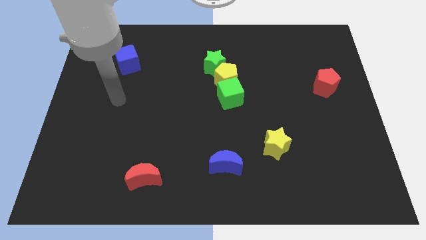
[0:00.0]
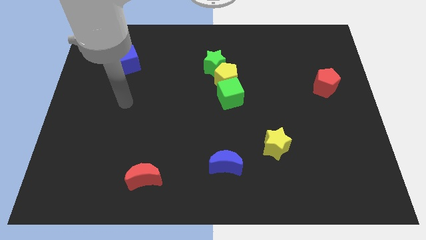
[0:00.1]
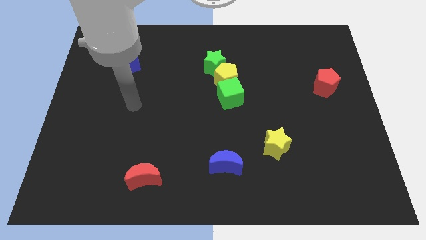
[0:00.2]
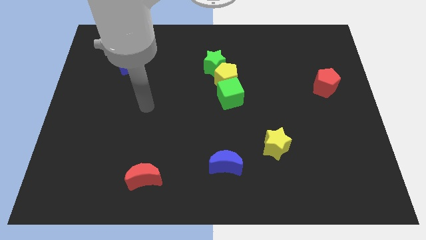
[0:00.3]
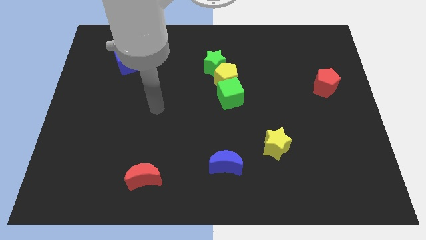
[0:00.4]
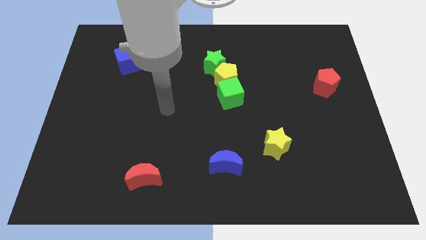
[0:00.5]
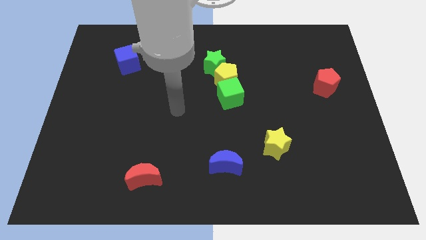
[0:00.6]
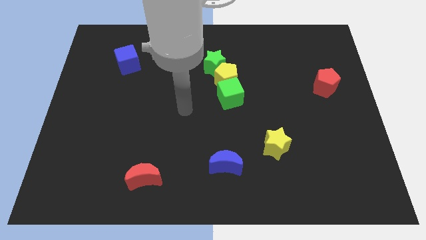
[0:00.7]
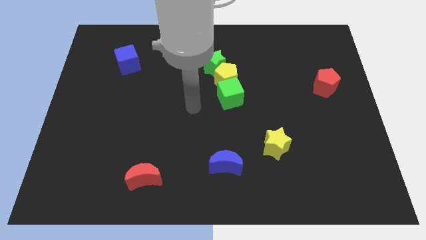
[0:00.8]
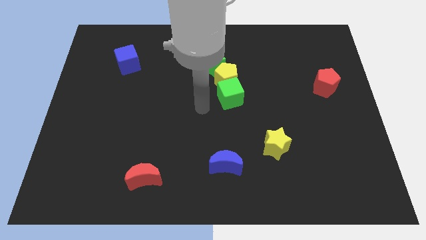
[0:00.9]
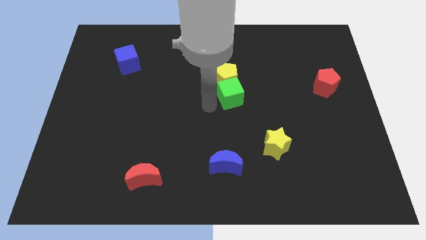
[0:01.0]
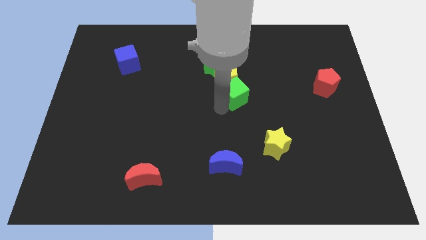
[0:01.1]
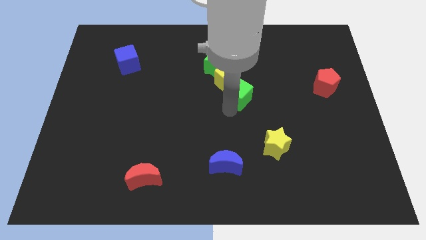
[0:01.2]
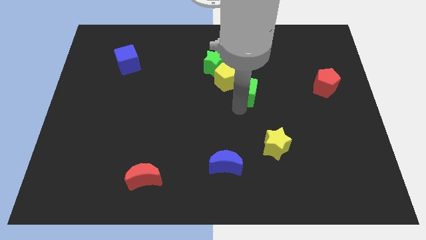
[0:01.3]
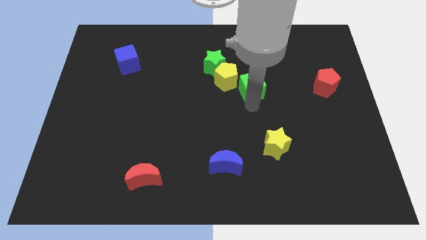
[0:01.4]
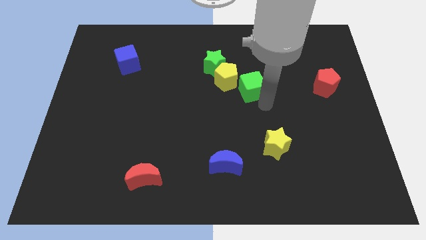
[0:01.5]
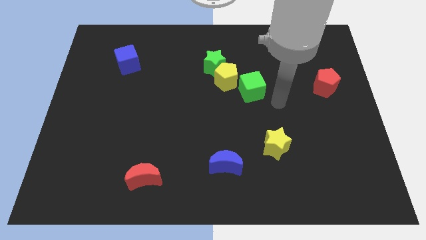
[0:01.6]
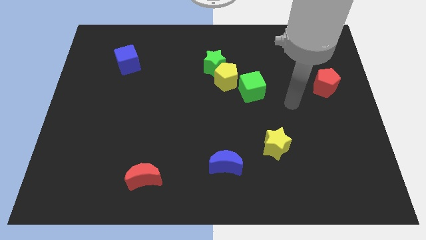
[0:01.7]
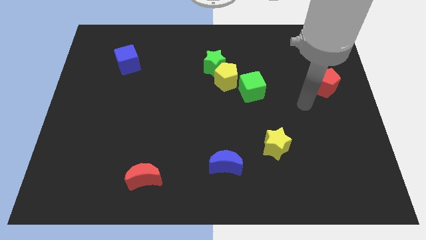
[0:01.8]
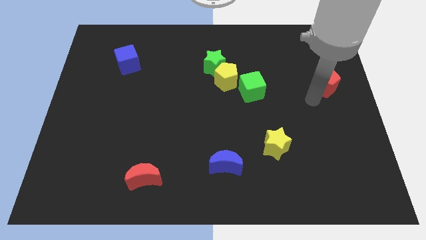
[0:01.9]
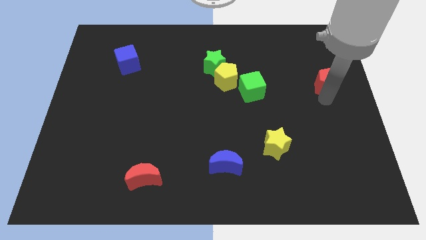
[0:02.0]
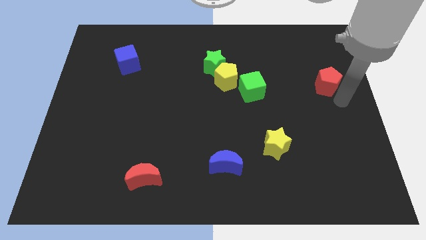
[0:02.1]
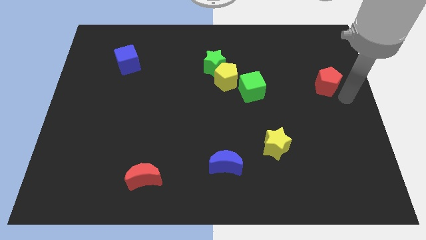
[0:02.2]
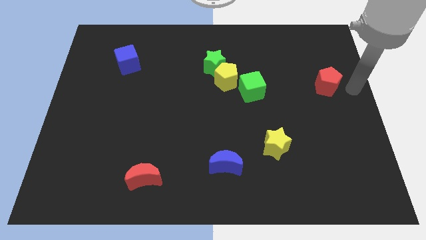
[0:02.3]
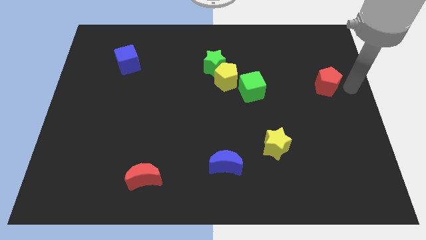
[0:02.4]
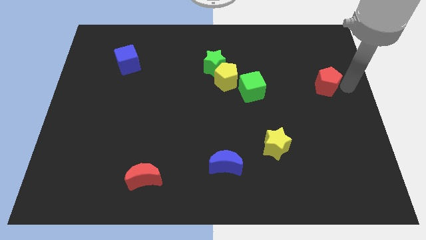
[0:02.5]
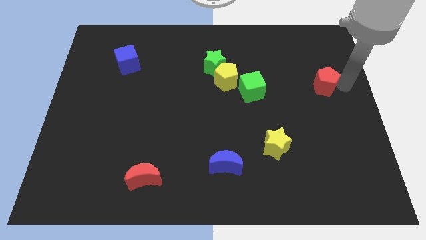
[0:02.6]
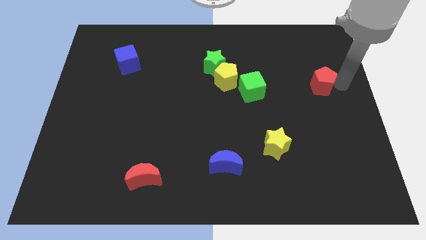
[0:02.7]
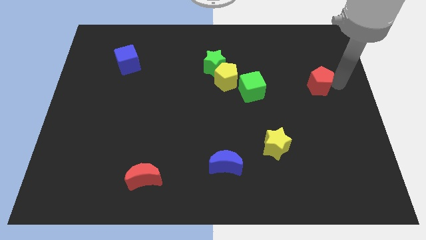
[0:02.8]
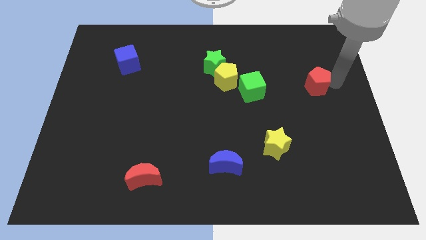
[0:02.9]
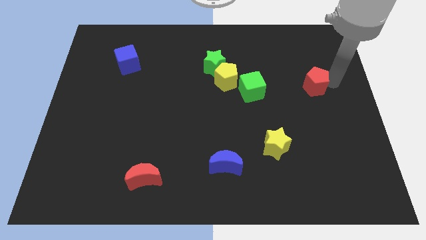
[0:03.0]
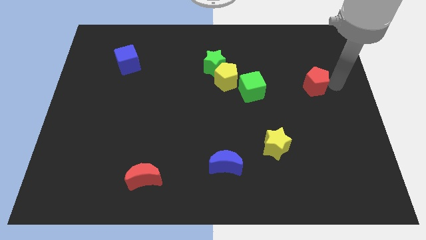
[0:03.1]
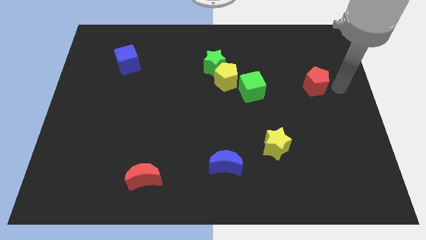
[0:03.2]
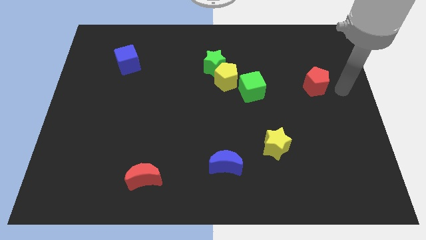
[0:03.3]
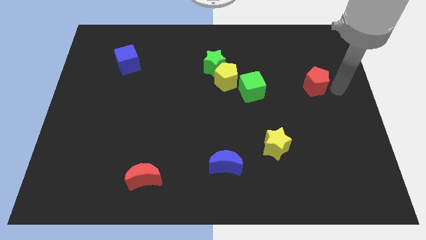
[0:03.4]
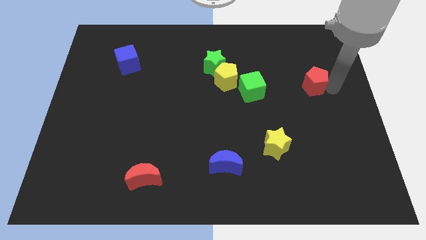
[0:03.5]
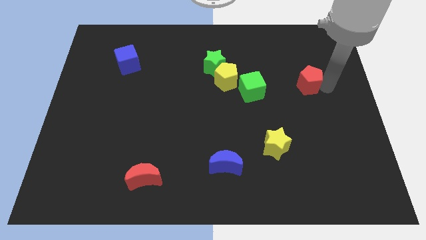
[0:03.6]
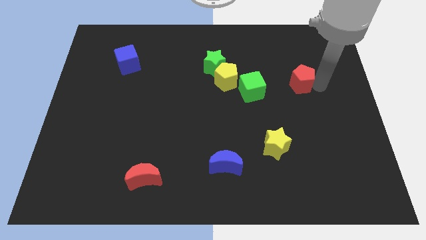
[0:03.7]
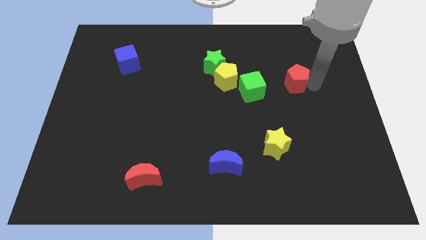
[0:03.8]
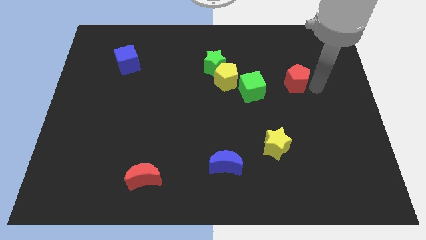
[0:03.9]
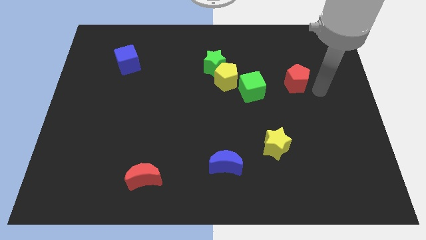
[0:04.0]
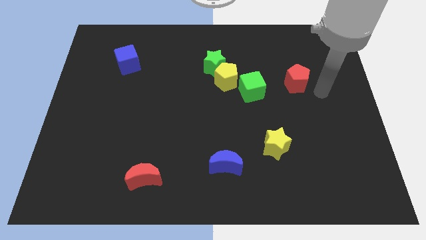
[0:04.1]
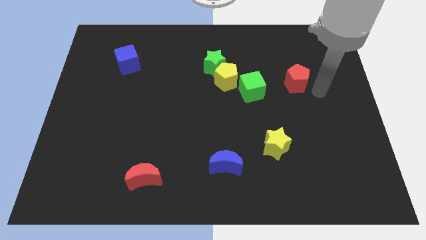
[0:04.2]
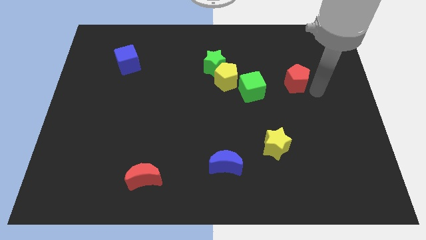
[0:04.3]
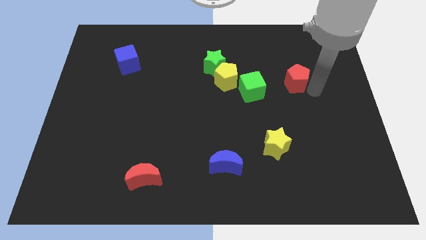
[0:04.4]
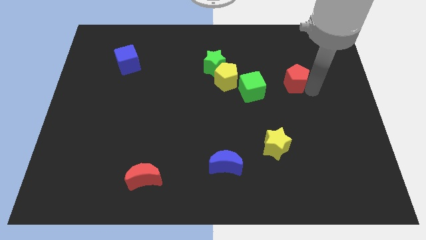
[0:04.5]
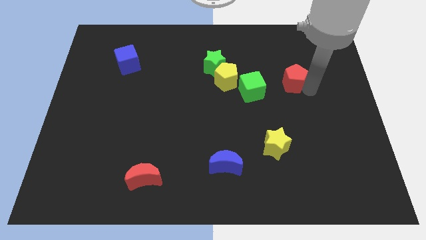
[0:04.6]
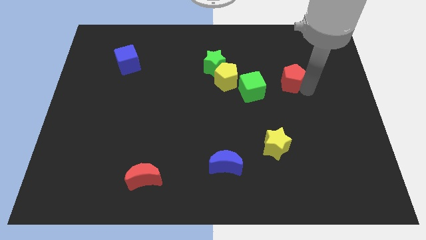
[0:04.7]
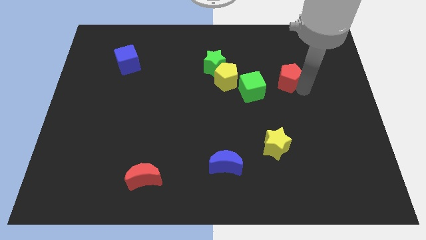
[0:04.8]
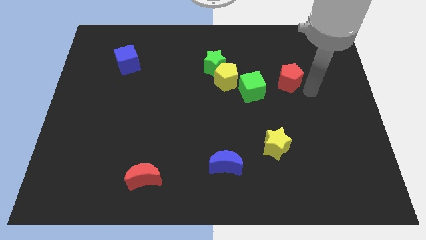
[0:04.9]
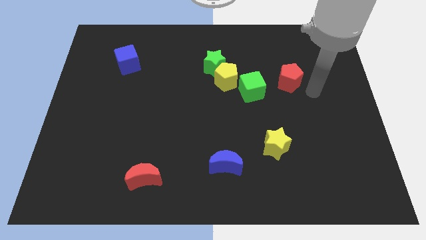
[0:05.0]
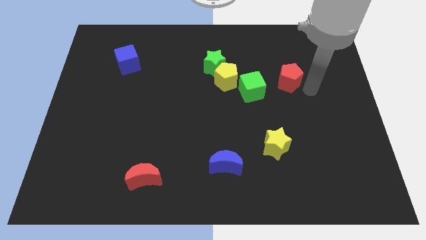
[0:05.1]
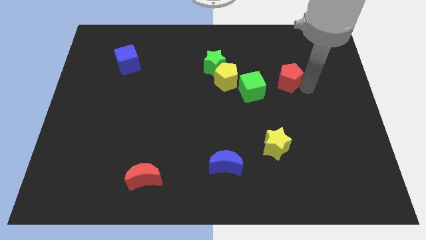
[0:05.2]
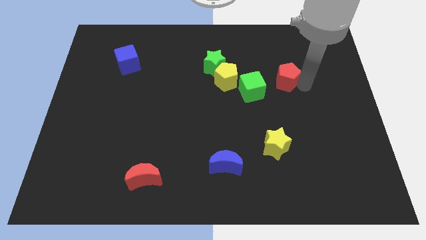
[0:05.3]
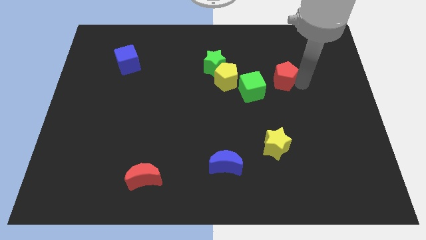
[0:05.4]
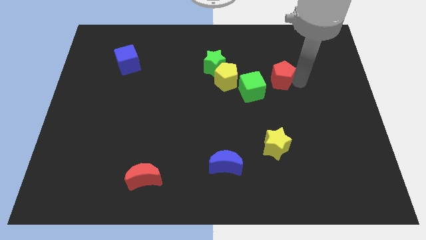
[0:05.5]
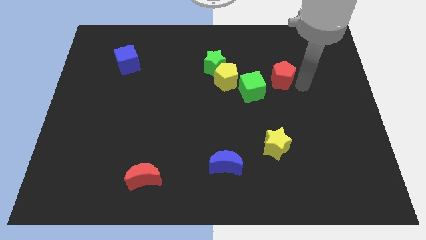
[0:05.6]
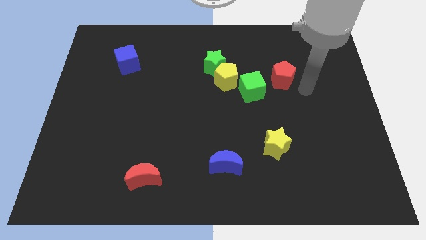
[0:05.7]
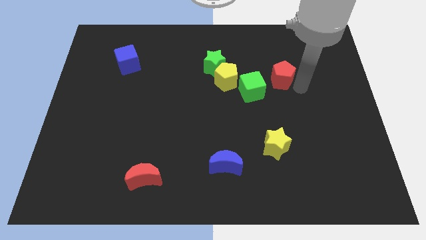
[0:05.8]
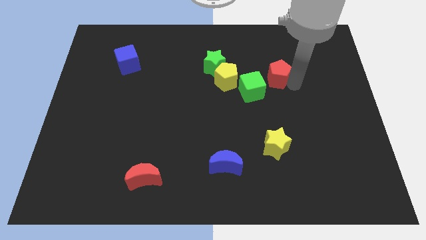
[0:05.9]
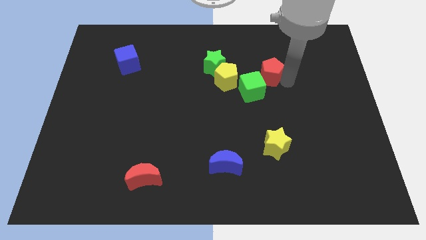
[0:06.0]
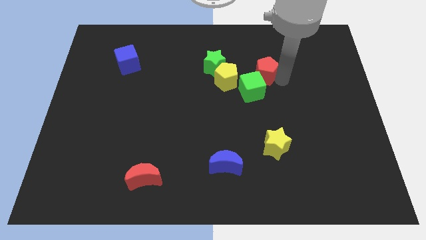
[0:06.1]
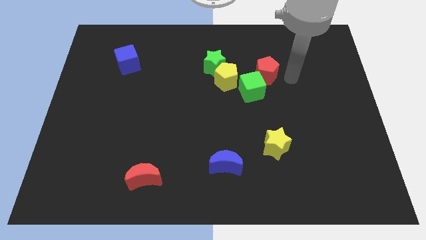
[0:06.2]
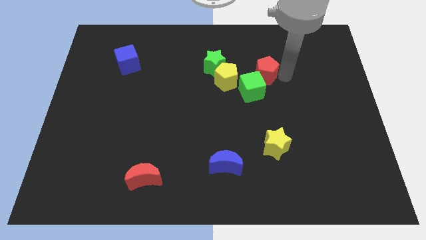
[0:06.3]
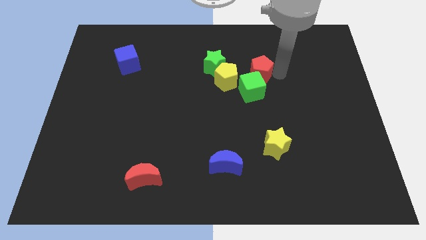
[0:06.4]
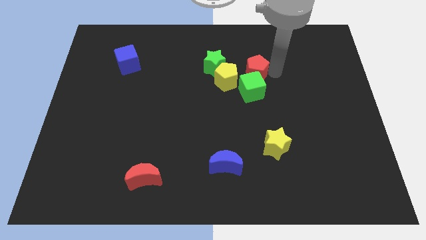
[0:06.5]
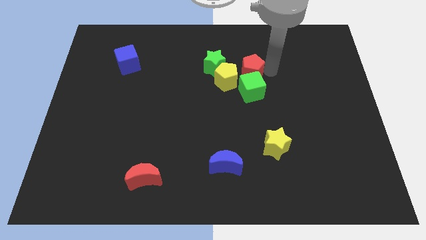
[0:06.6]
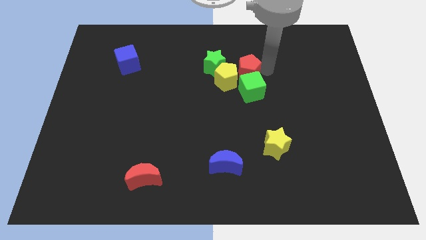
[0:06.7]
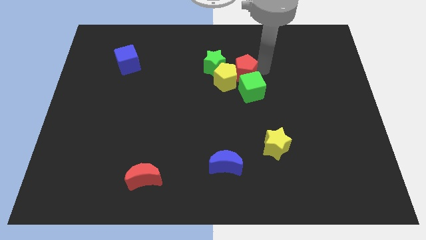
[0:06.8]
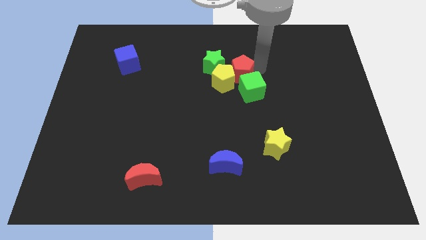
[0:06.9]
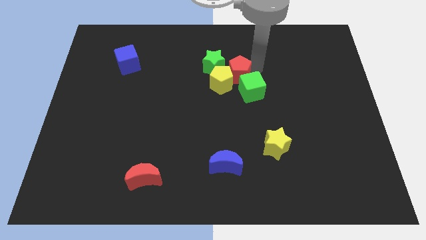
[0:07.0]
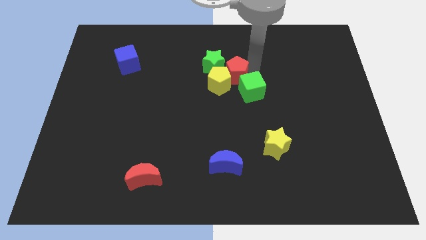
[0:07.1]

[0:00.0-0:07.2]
put the red pentagon to the green star
